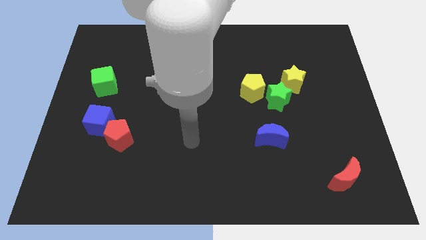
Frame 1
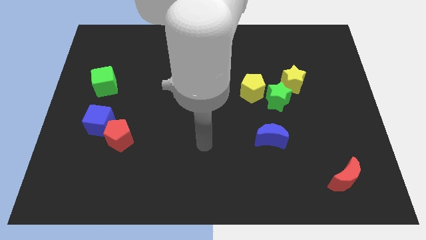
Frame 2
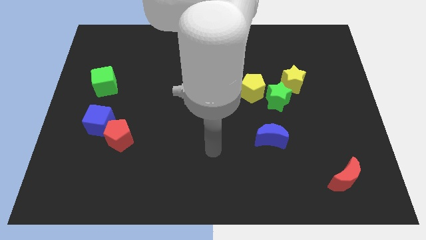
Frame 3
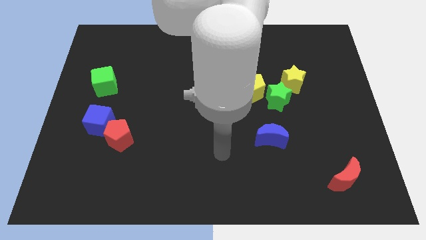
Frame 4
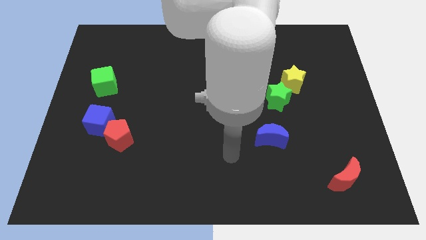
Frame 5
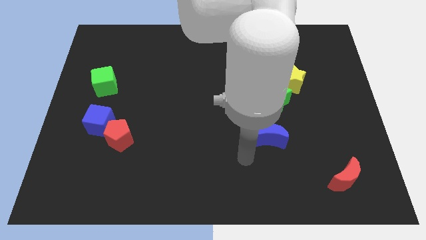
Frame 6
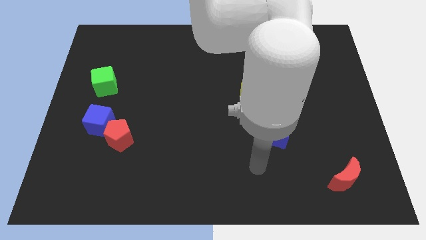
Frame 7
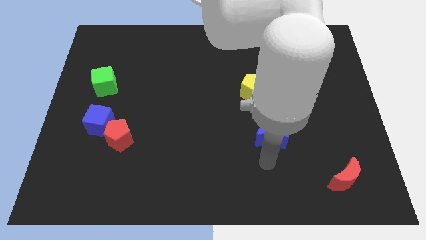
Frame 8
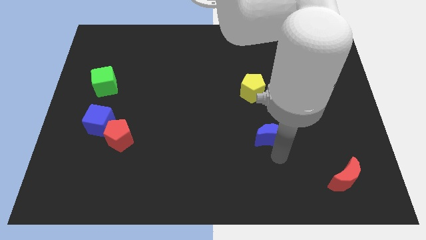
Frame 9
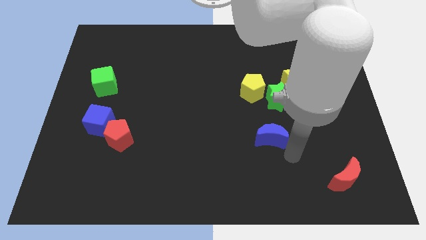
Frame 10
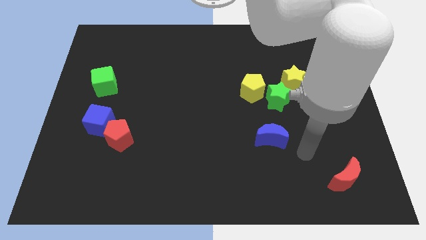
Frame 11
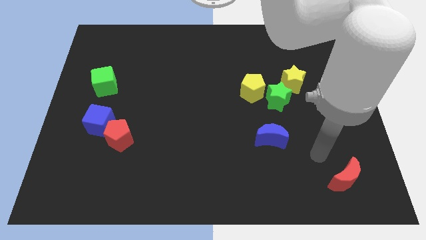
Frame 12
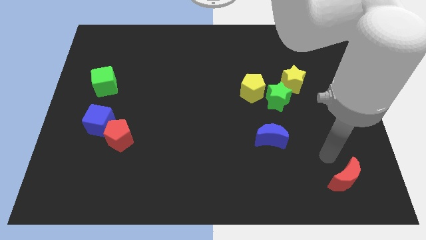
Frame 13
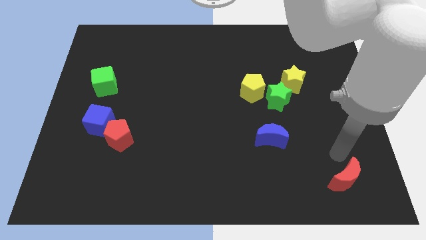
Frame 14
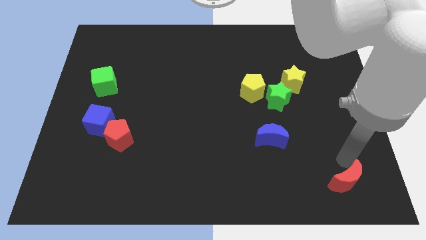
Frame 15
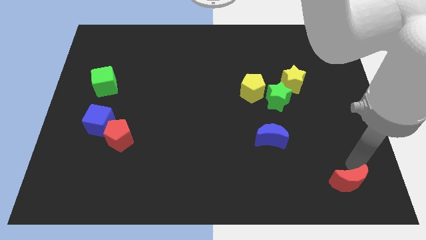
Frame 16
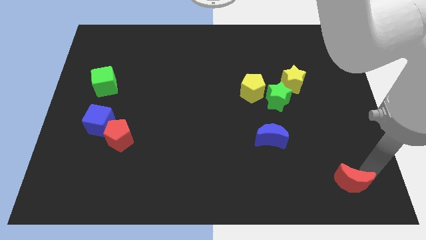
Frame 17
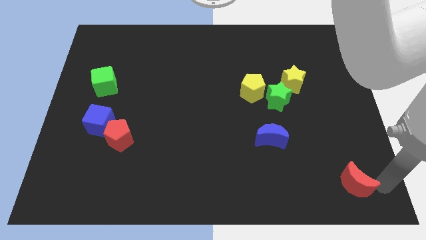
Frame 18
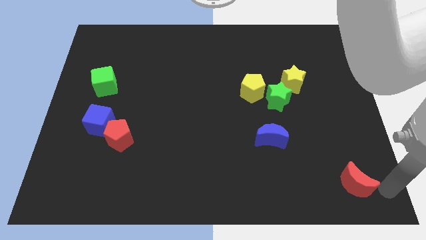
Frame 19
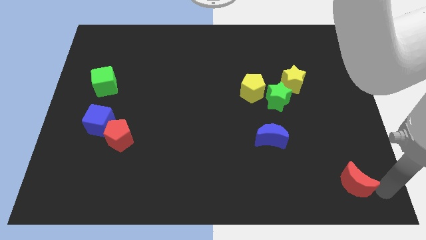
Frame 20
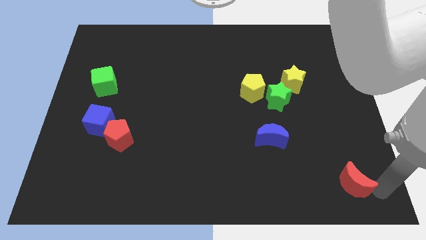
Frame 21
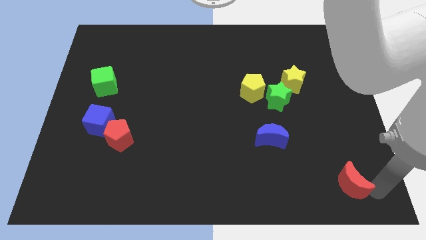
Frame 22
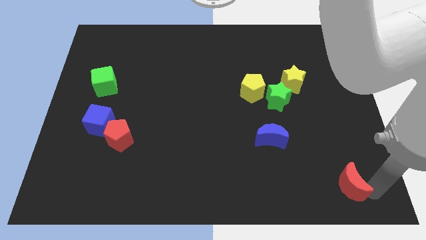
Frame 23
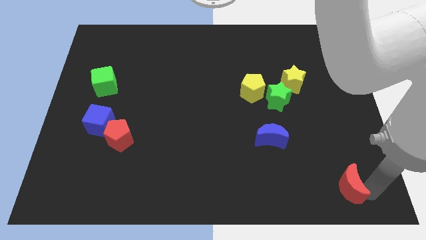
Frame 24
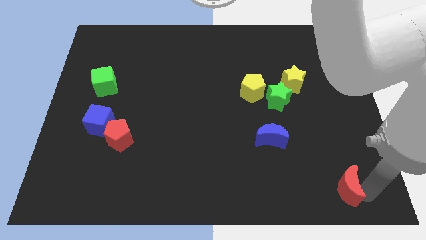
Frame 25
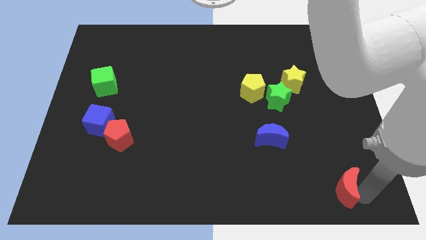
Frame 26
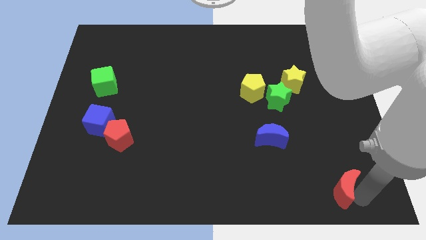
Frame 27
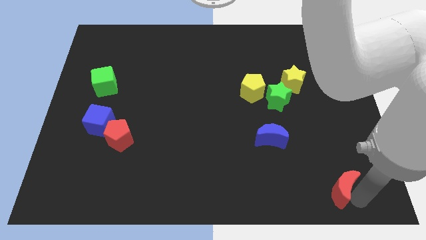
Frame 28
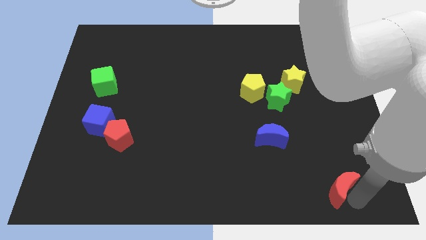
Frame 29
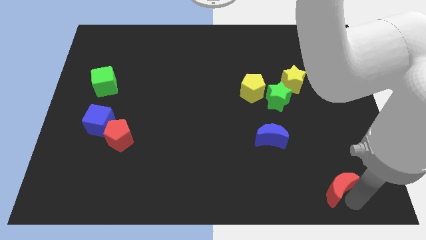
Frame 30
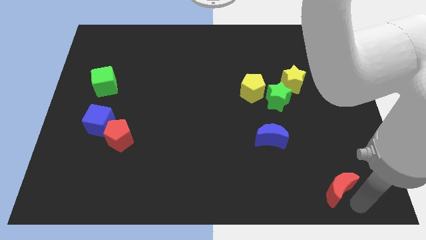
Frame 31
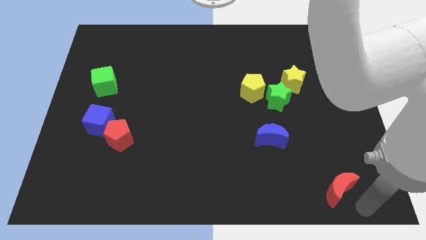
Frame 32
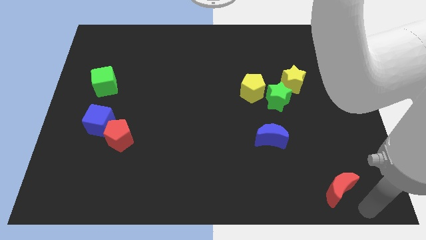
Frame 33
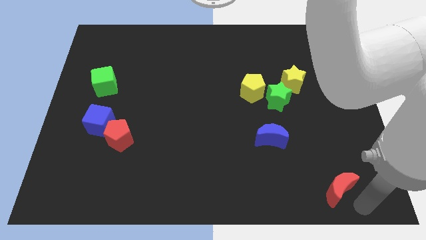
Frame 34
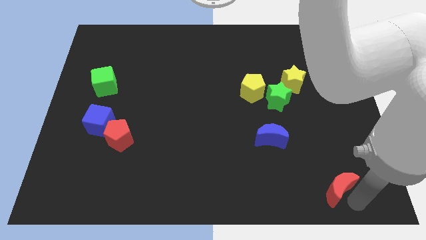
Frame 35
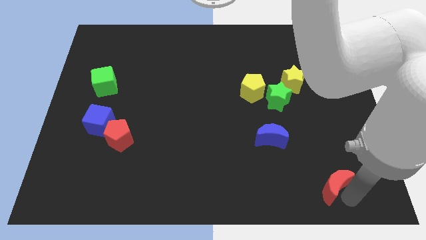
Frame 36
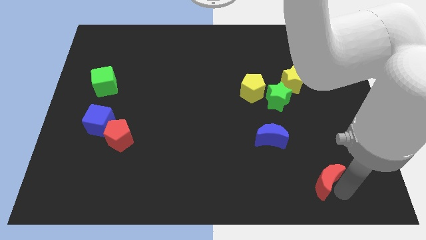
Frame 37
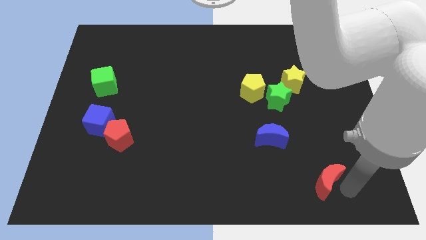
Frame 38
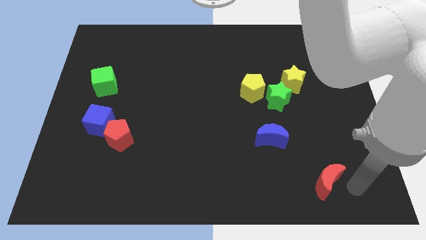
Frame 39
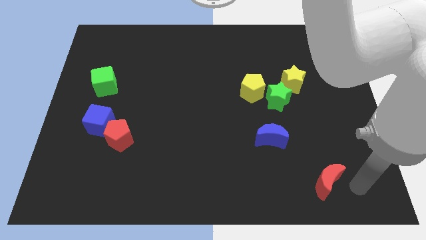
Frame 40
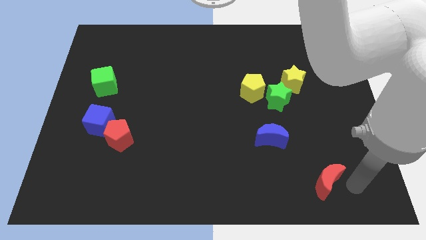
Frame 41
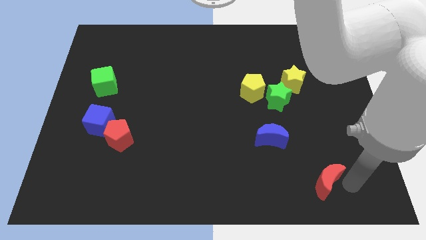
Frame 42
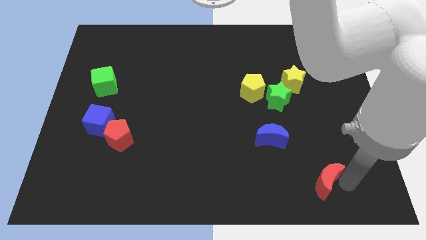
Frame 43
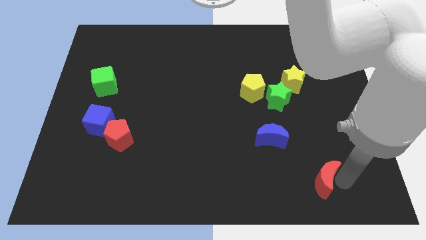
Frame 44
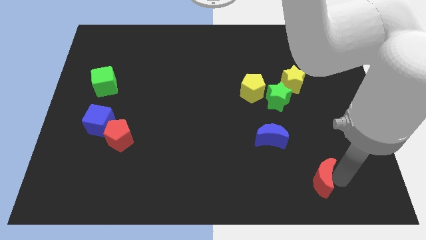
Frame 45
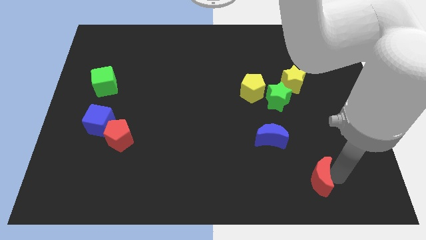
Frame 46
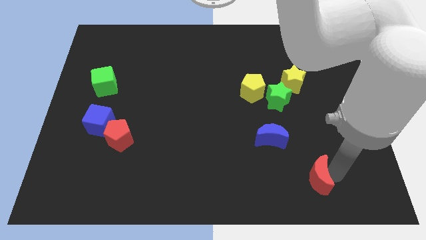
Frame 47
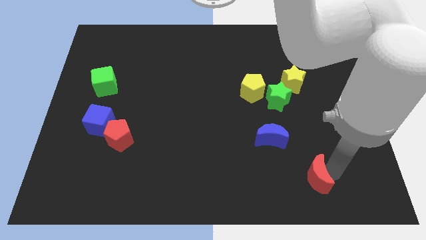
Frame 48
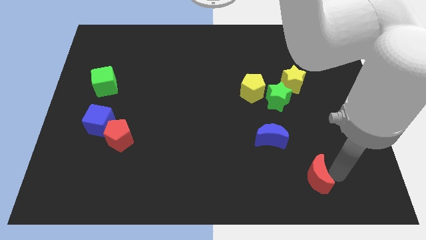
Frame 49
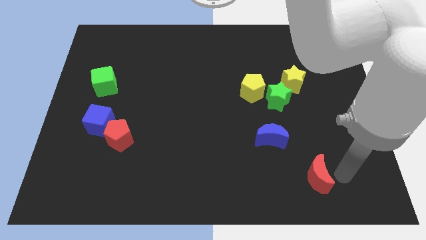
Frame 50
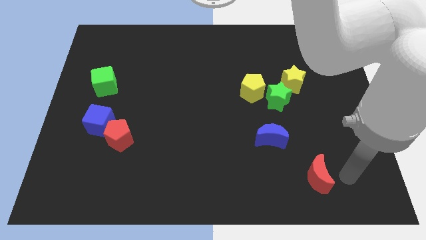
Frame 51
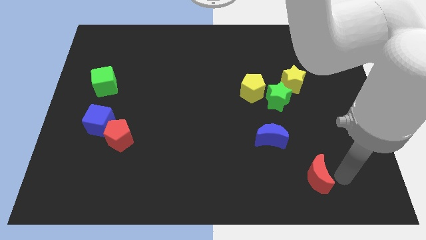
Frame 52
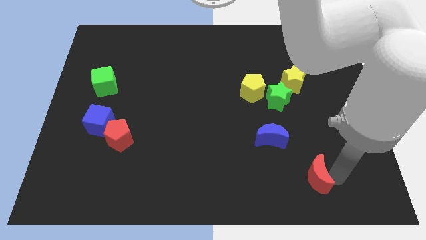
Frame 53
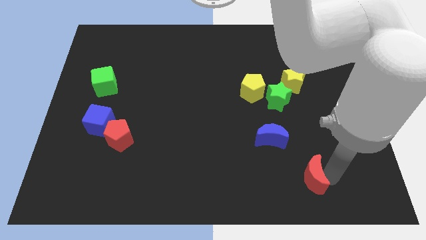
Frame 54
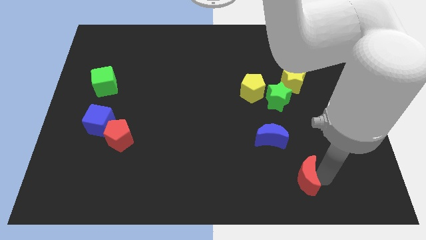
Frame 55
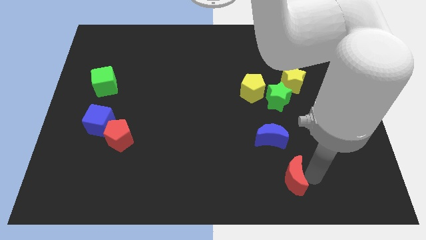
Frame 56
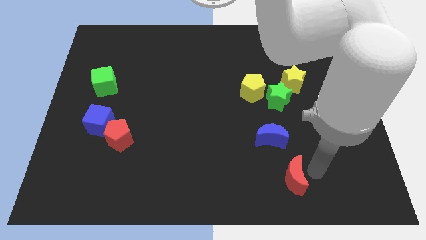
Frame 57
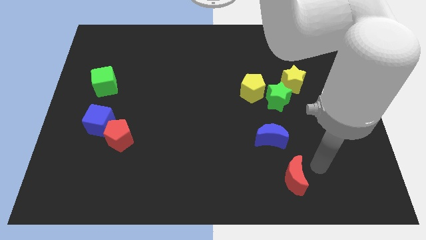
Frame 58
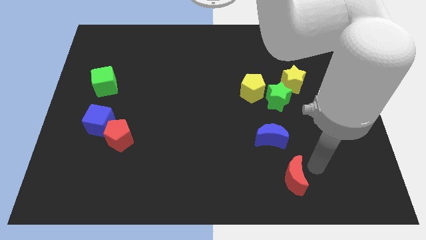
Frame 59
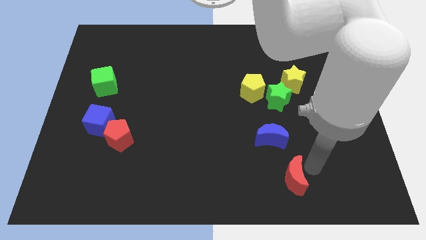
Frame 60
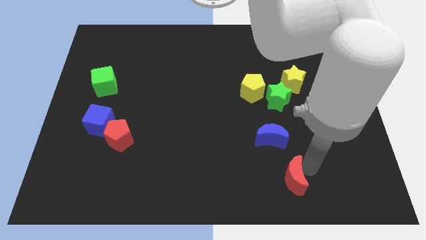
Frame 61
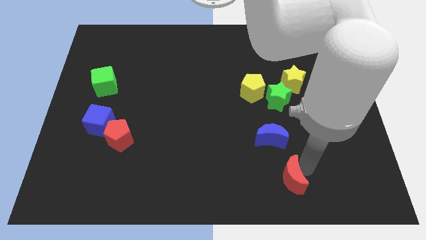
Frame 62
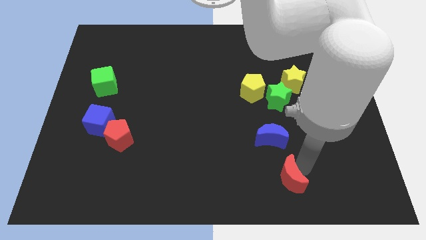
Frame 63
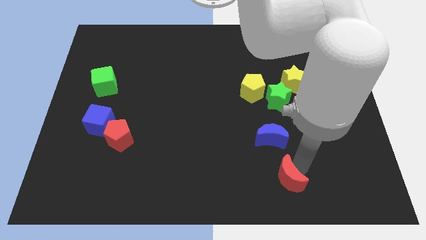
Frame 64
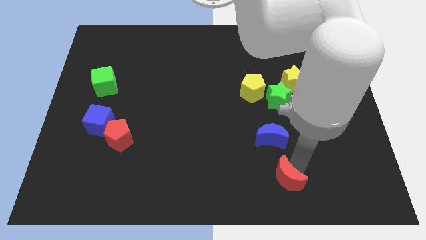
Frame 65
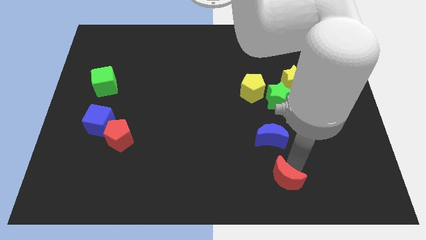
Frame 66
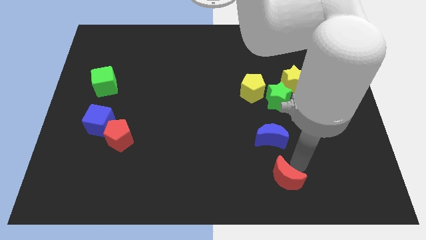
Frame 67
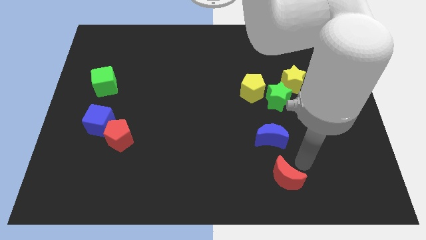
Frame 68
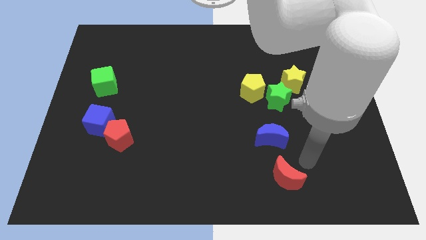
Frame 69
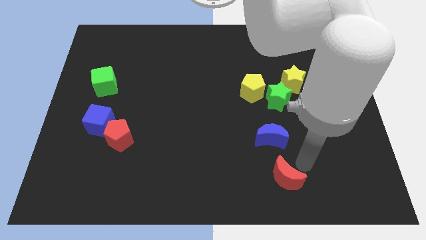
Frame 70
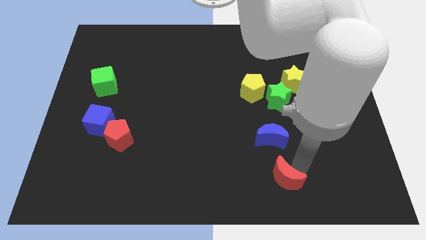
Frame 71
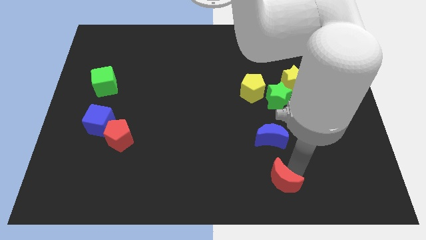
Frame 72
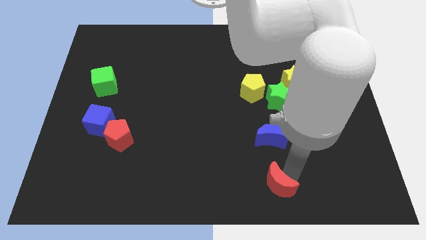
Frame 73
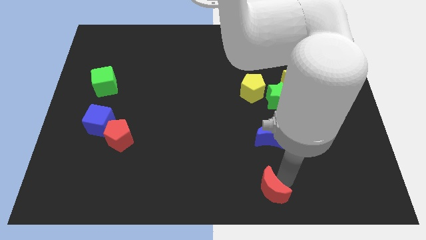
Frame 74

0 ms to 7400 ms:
move the red moon to the bottom side

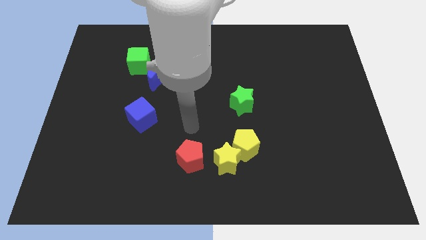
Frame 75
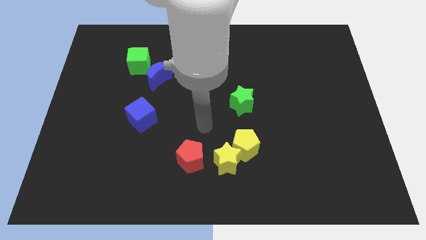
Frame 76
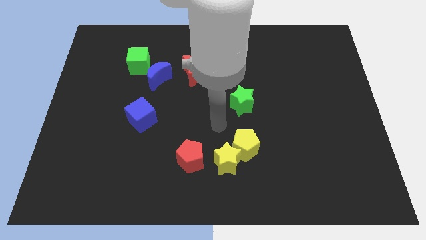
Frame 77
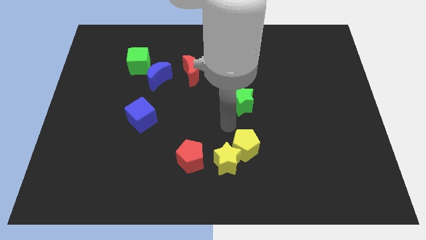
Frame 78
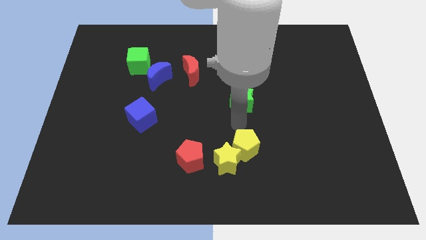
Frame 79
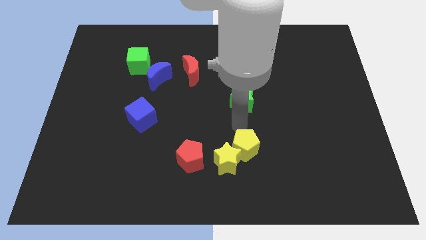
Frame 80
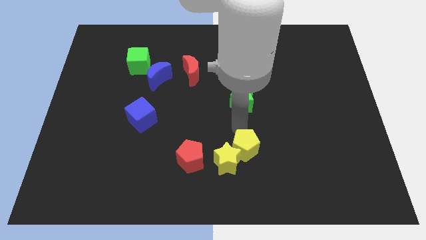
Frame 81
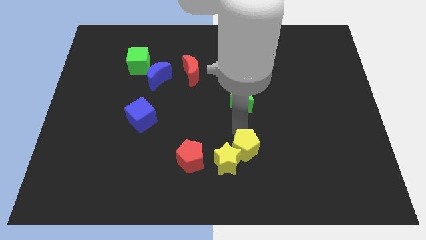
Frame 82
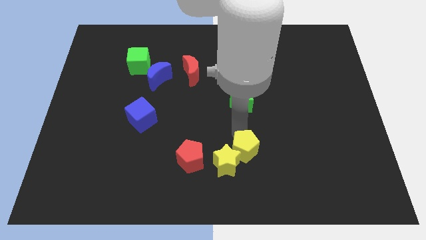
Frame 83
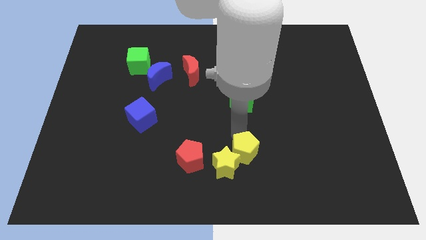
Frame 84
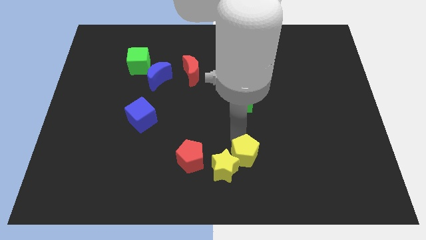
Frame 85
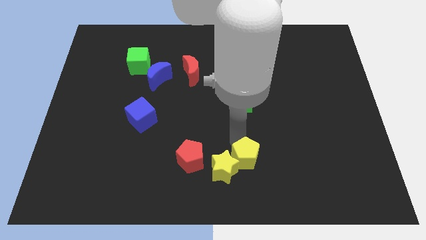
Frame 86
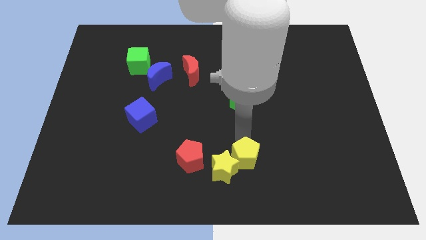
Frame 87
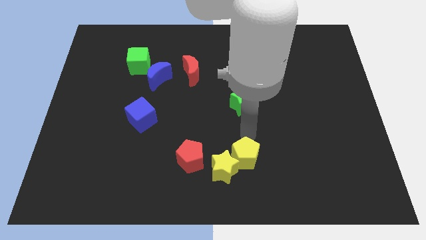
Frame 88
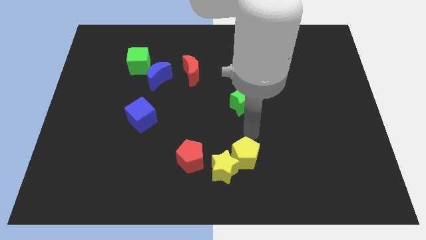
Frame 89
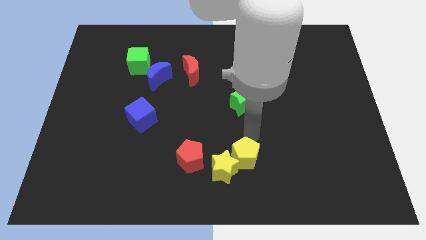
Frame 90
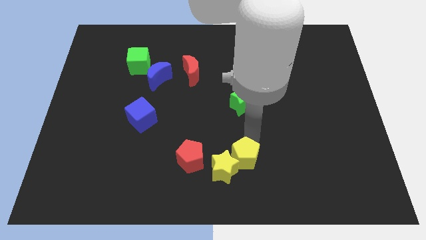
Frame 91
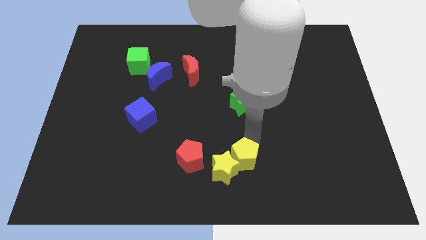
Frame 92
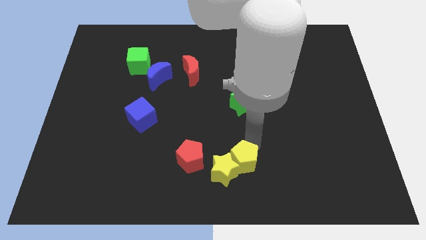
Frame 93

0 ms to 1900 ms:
move the yellow pentagon to the bottom side
